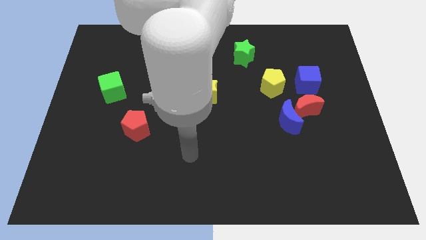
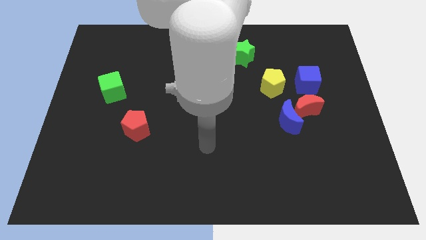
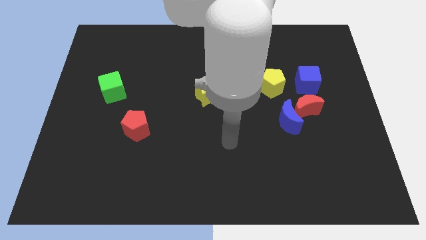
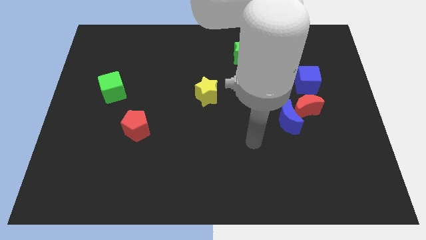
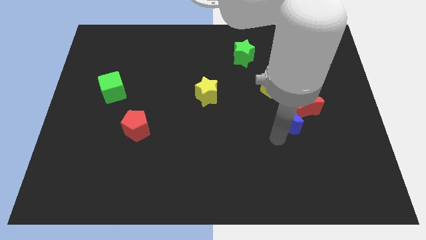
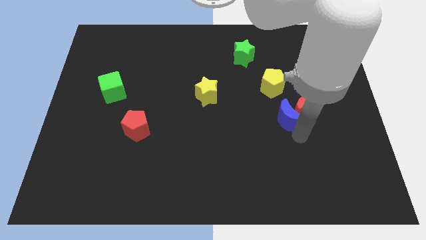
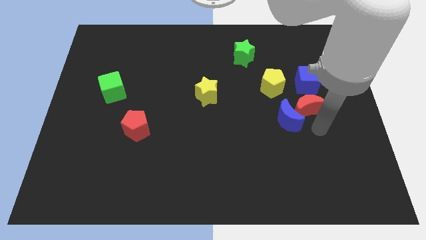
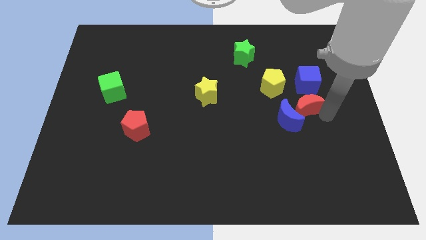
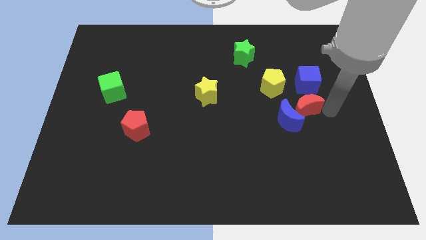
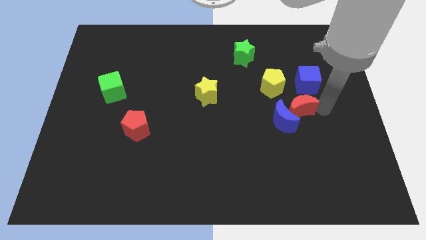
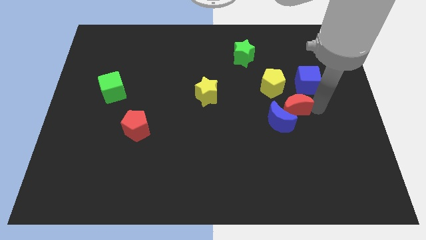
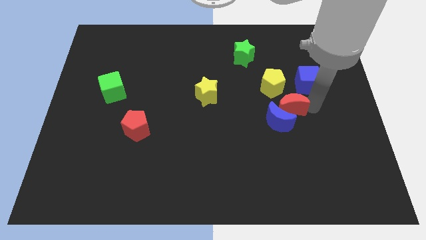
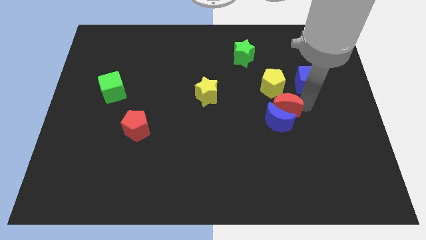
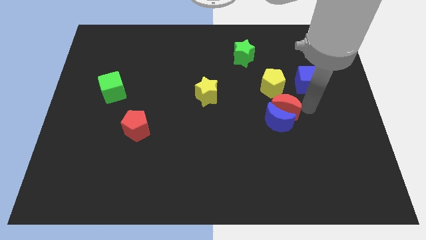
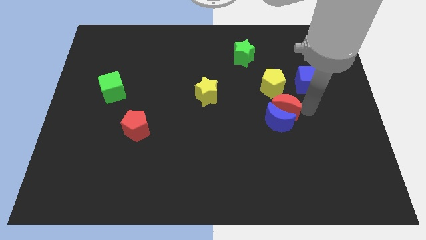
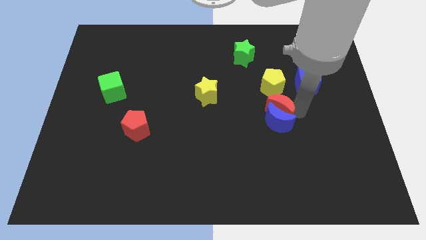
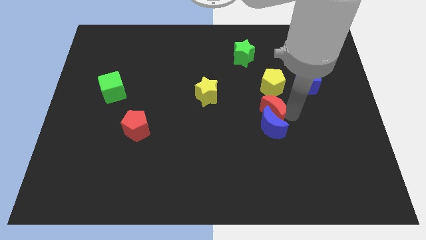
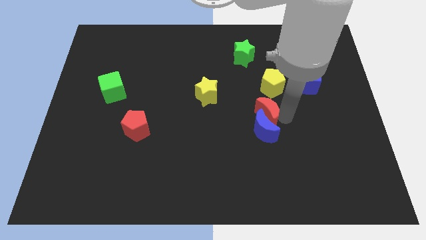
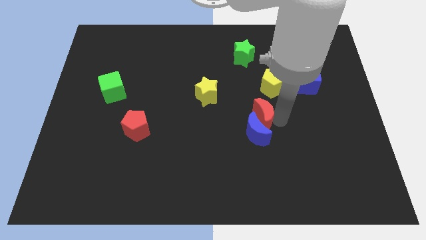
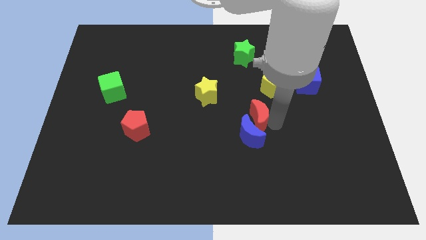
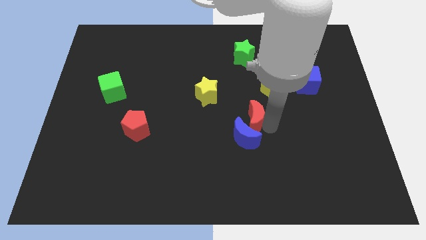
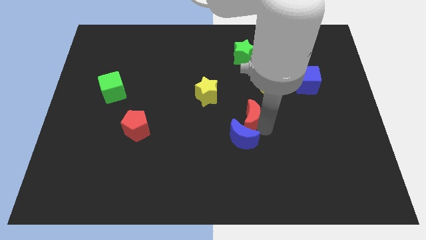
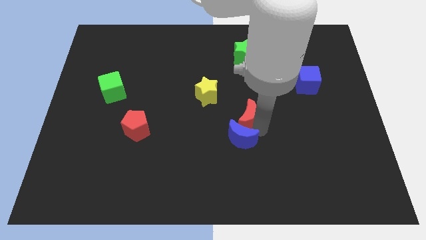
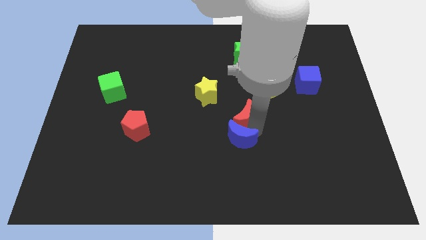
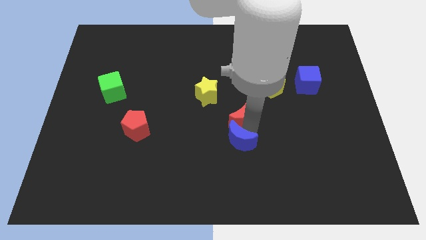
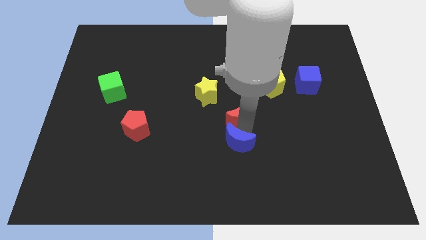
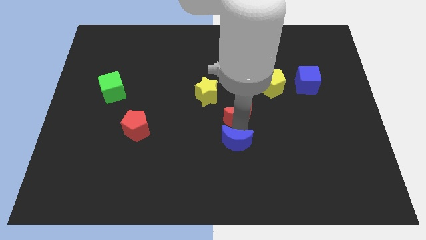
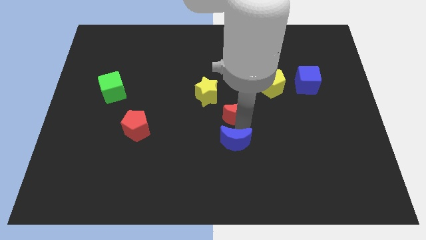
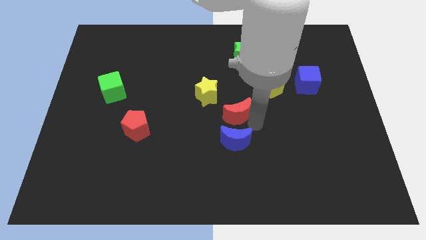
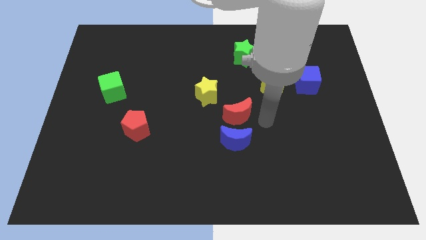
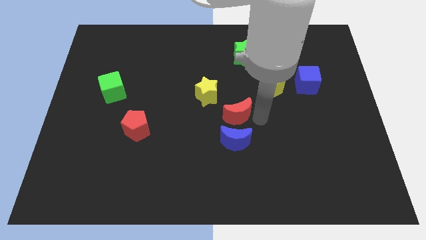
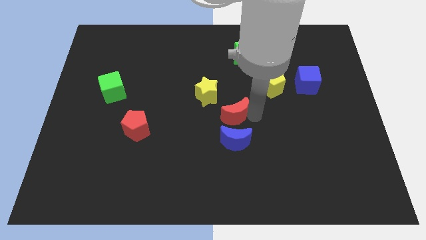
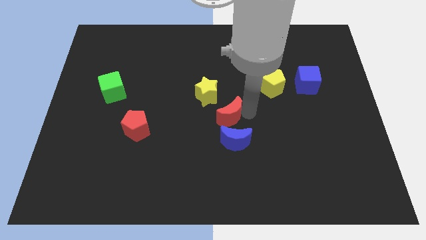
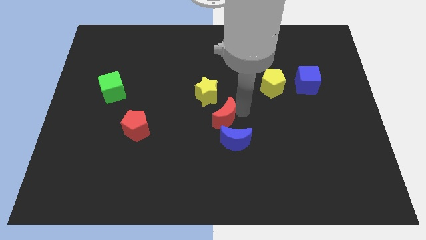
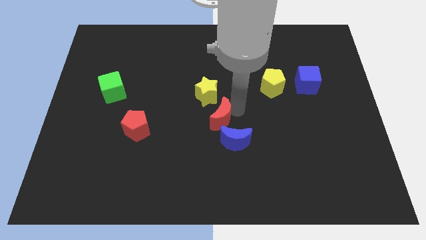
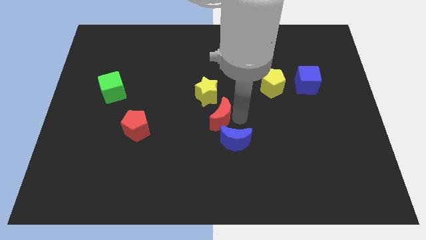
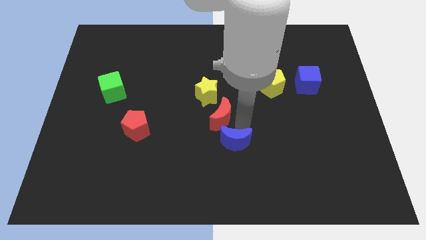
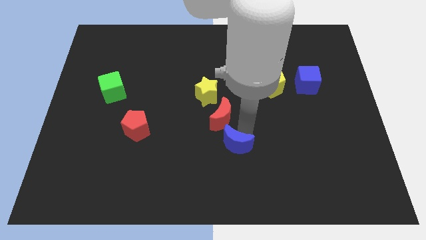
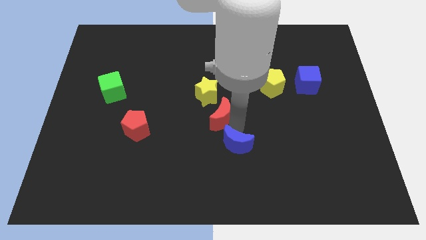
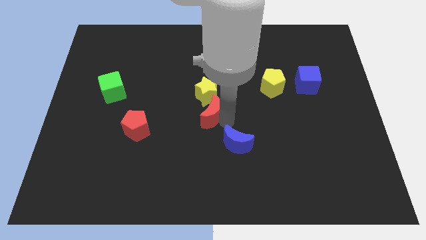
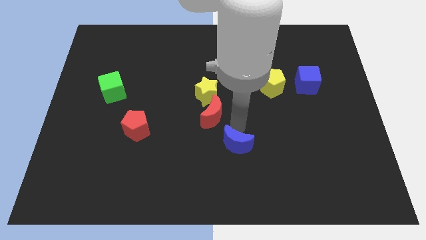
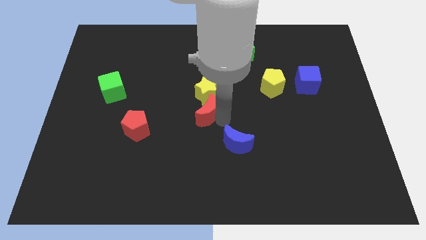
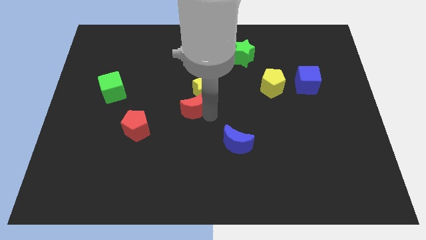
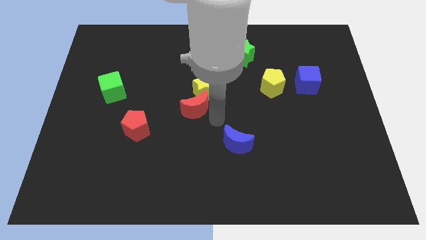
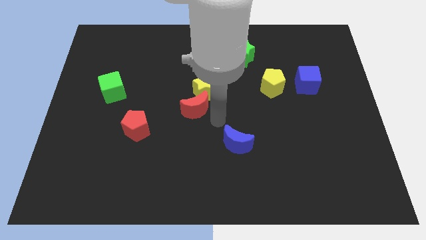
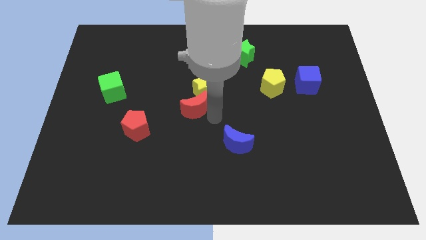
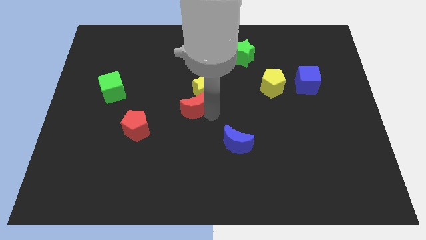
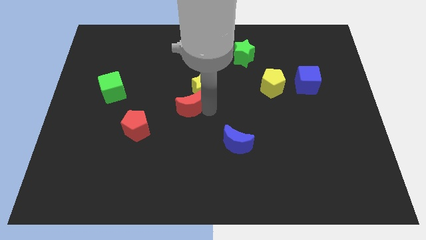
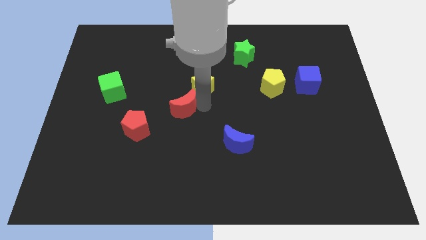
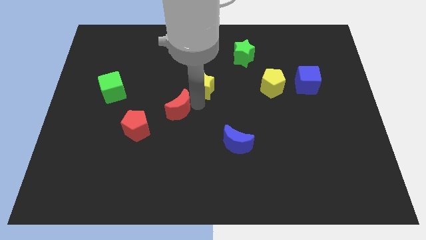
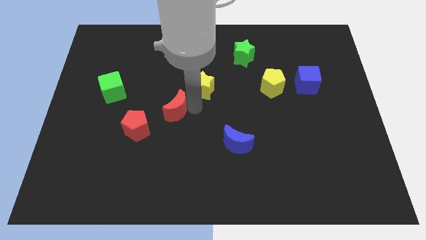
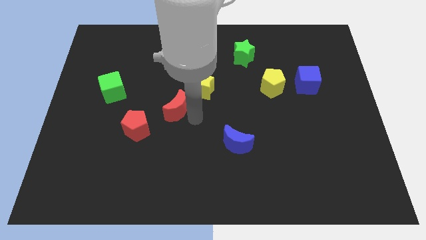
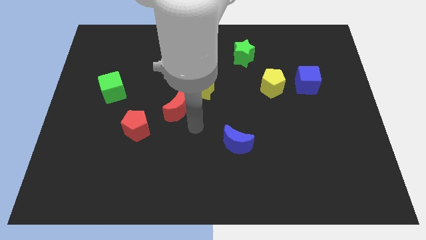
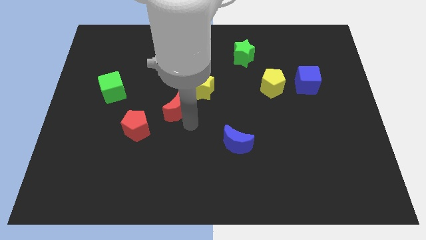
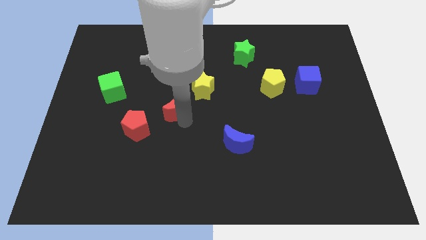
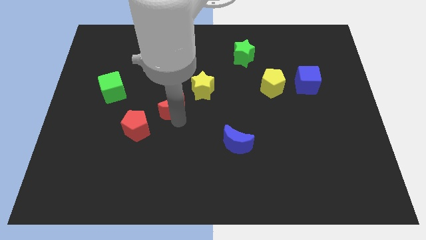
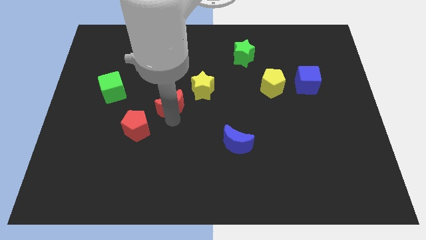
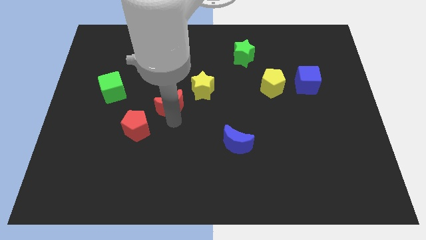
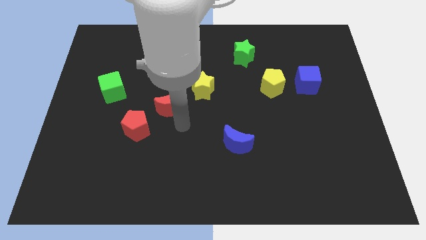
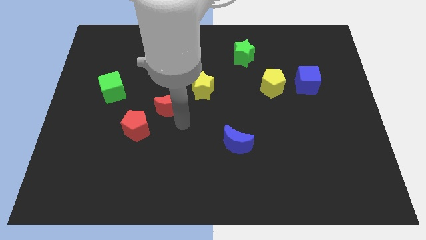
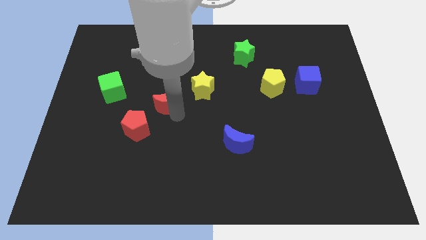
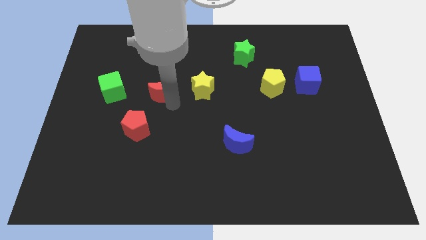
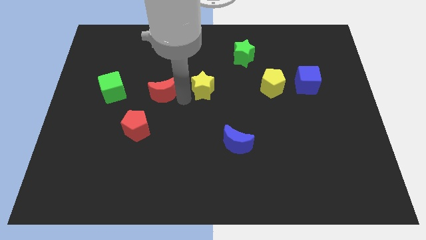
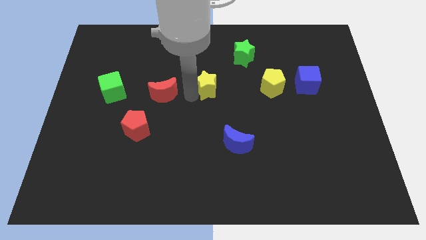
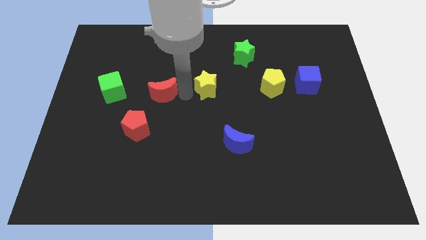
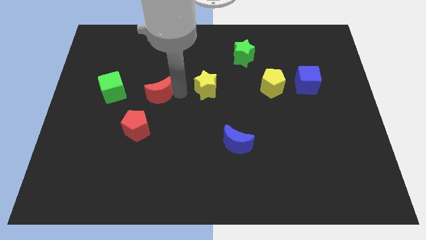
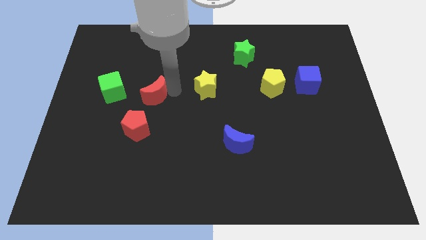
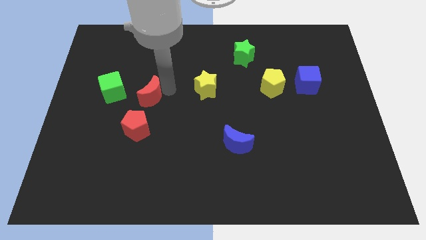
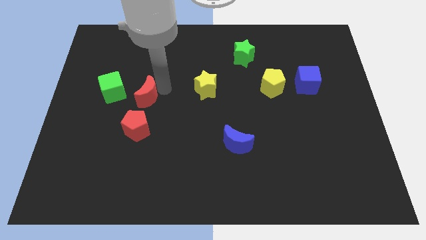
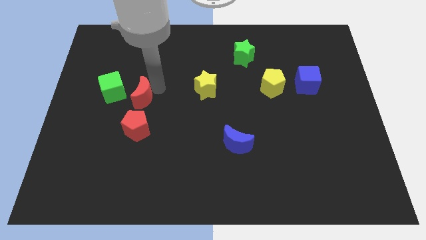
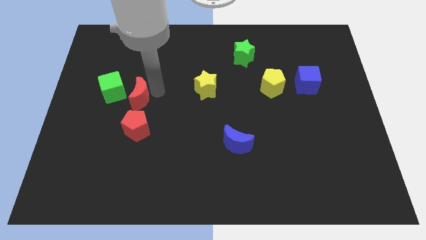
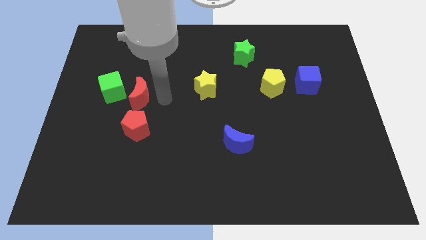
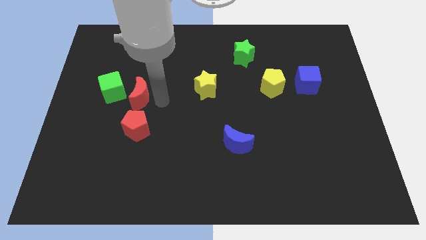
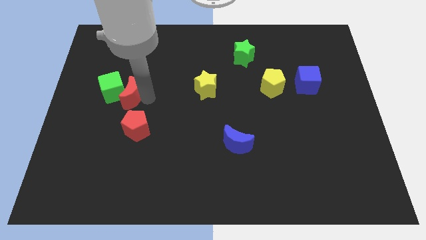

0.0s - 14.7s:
push the red moon close to the green cube
